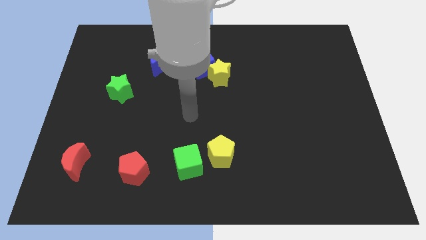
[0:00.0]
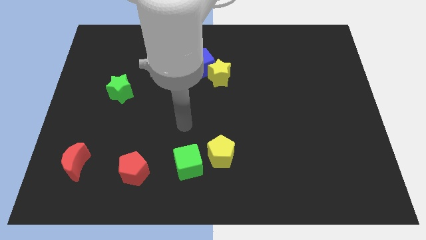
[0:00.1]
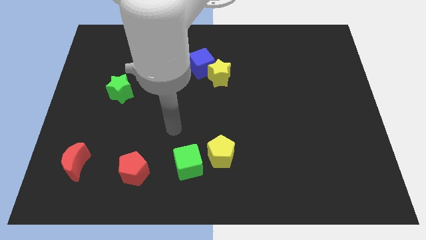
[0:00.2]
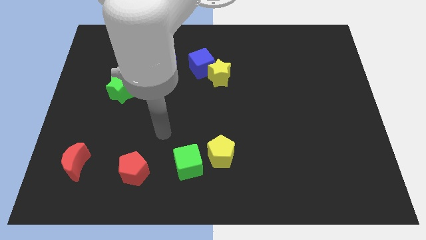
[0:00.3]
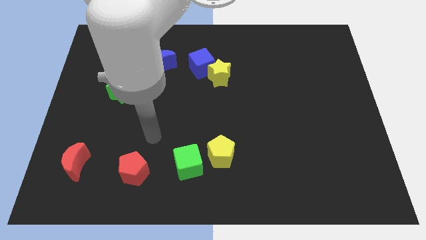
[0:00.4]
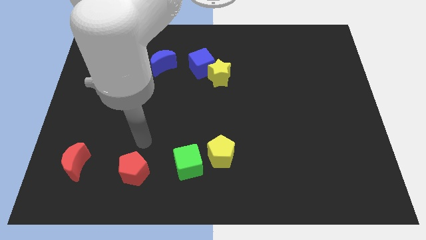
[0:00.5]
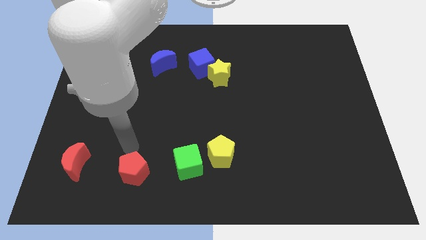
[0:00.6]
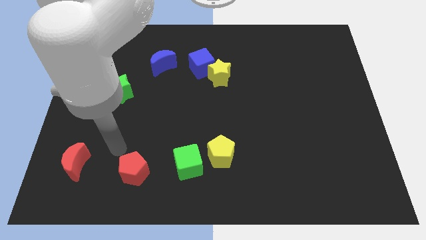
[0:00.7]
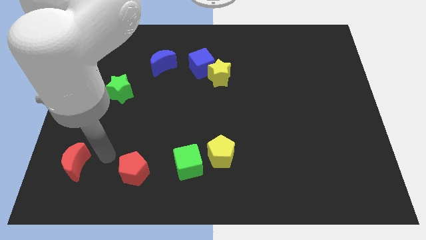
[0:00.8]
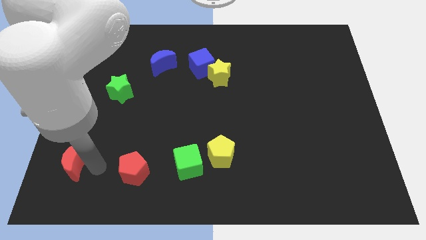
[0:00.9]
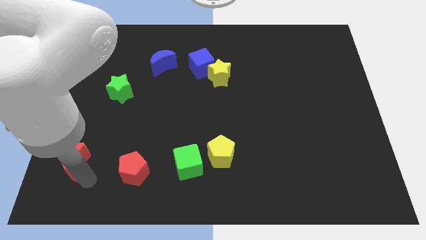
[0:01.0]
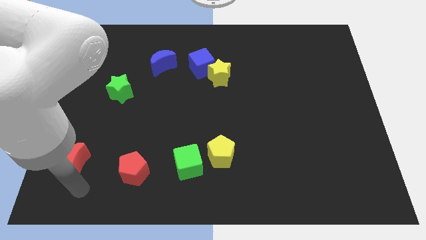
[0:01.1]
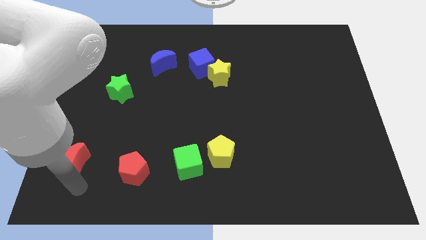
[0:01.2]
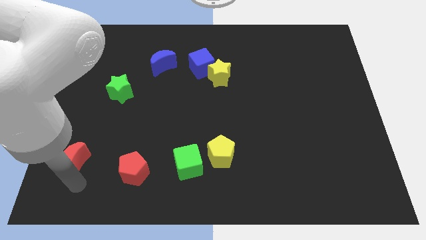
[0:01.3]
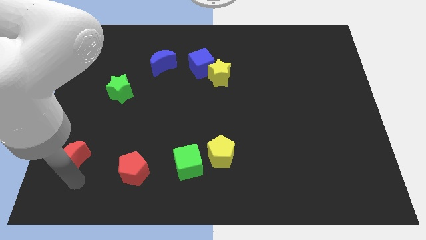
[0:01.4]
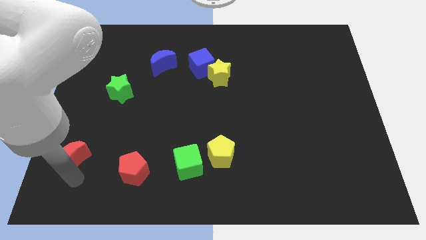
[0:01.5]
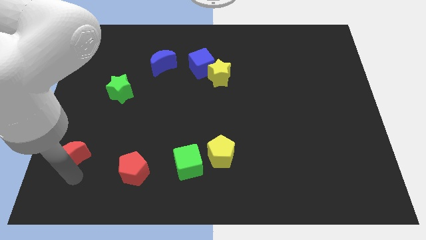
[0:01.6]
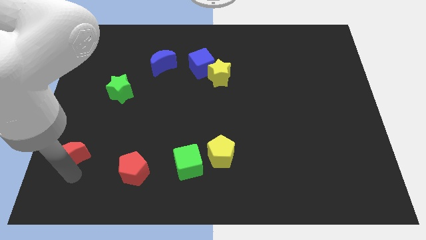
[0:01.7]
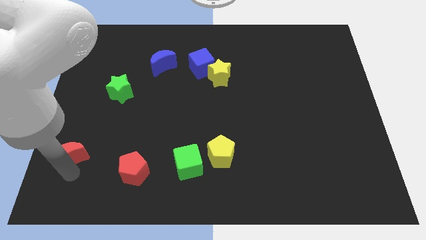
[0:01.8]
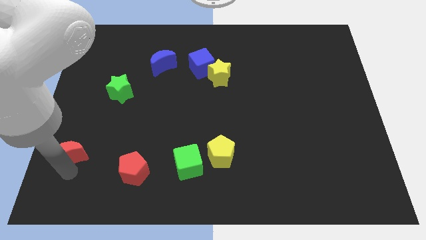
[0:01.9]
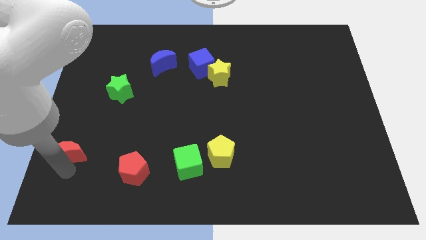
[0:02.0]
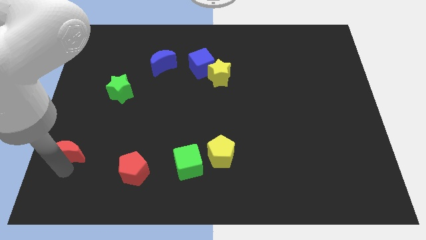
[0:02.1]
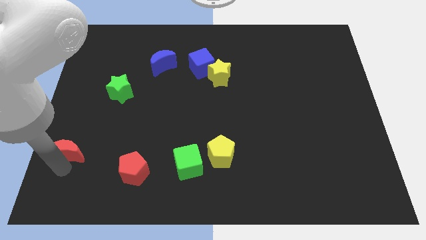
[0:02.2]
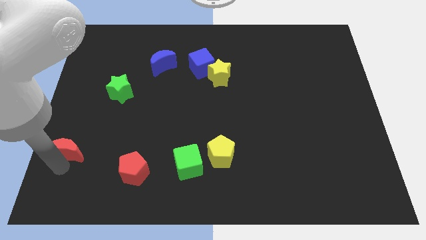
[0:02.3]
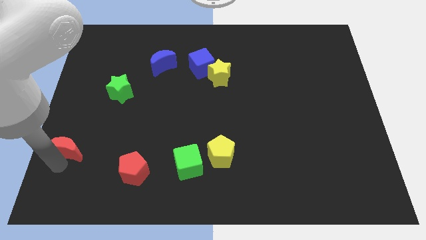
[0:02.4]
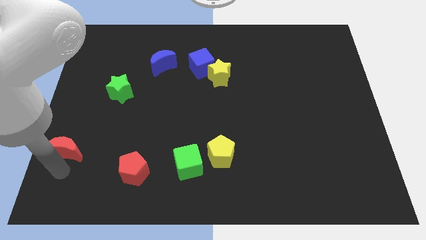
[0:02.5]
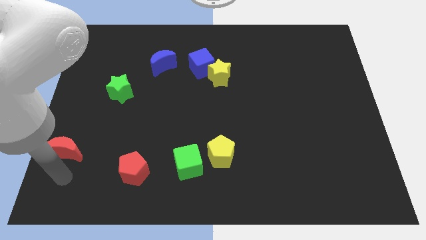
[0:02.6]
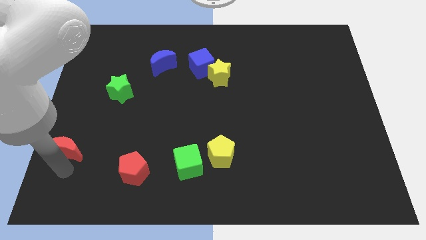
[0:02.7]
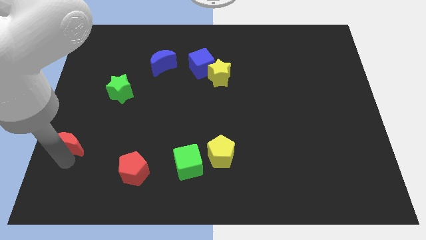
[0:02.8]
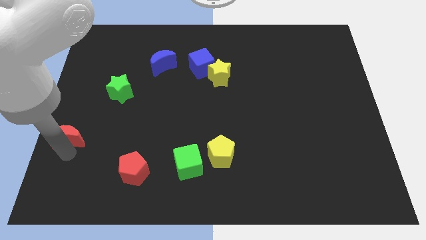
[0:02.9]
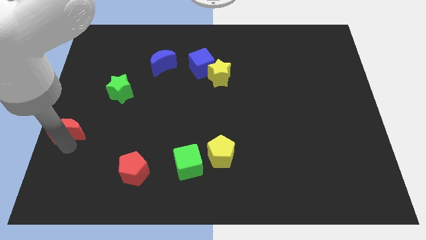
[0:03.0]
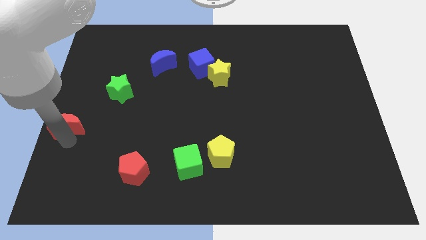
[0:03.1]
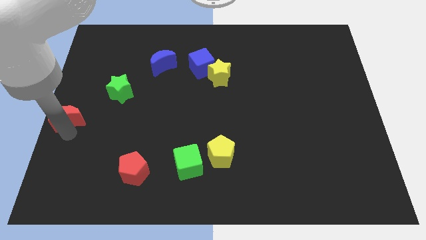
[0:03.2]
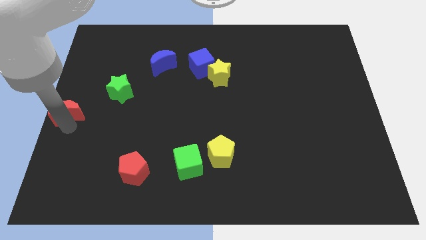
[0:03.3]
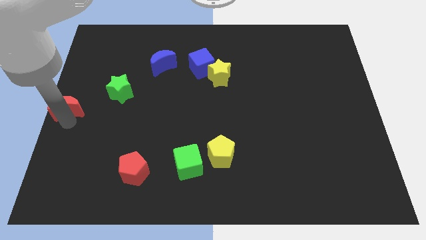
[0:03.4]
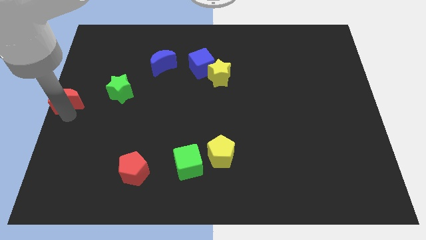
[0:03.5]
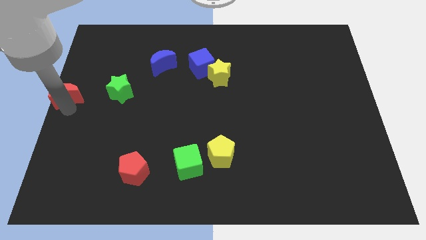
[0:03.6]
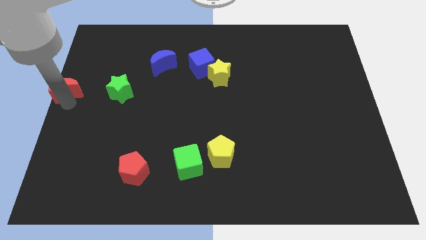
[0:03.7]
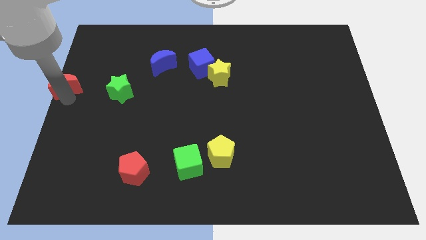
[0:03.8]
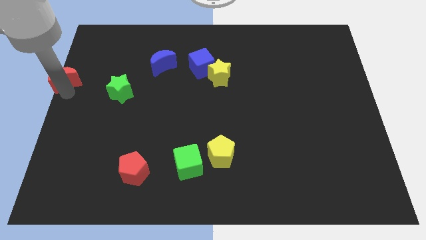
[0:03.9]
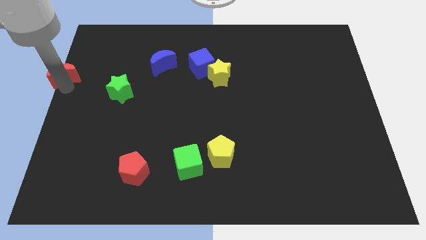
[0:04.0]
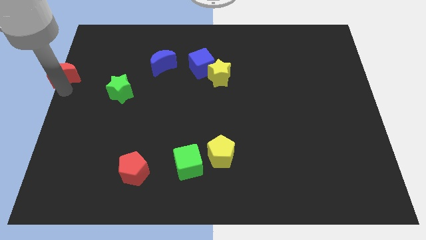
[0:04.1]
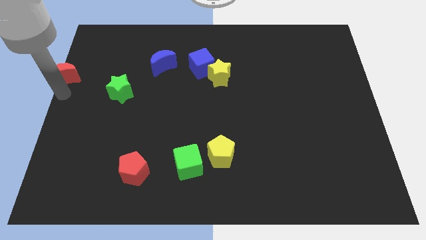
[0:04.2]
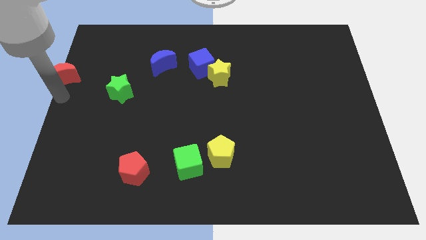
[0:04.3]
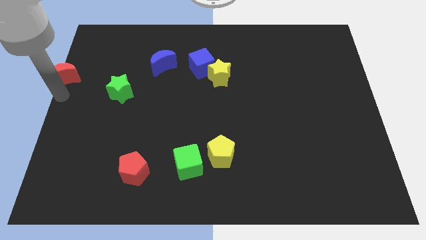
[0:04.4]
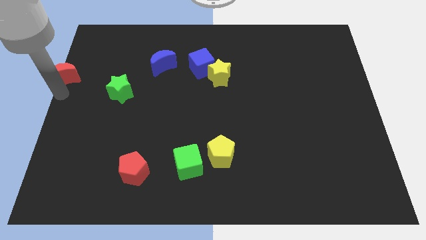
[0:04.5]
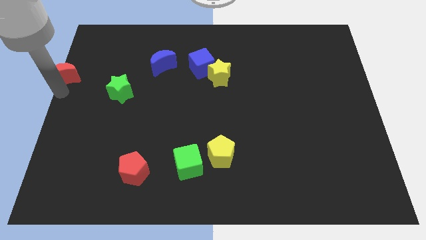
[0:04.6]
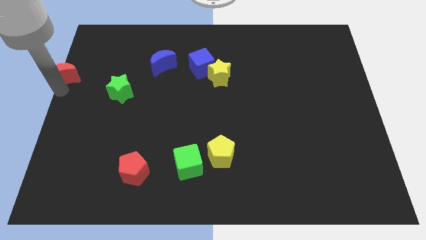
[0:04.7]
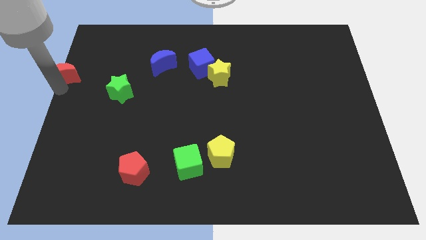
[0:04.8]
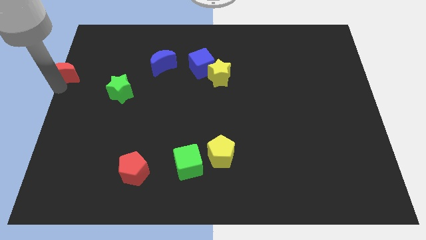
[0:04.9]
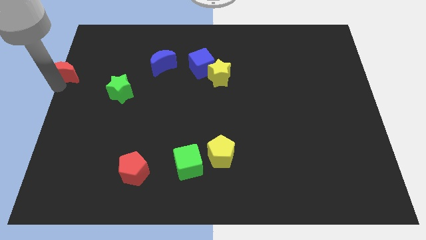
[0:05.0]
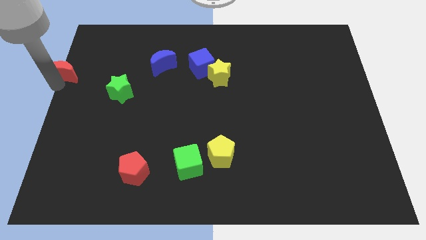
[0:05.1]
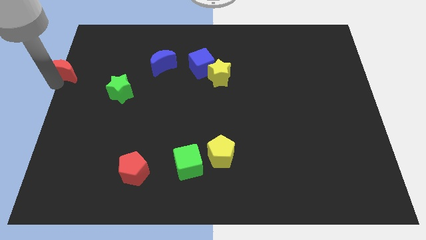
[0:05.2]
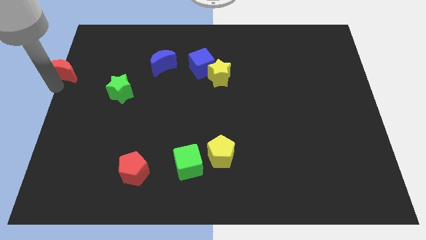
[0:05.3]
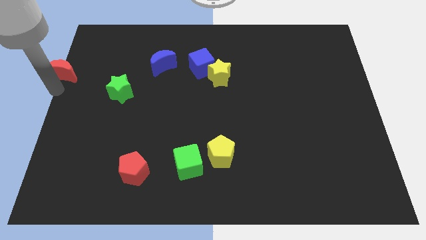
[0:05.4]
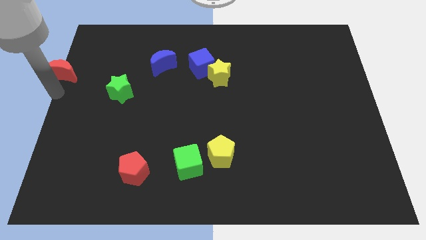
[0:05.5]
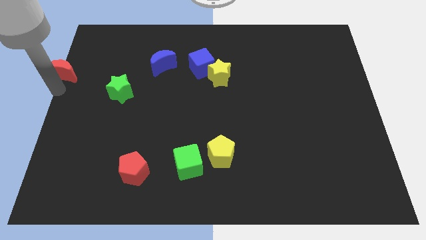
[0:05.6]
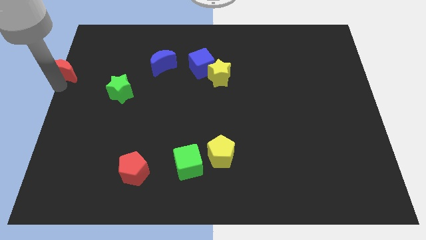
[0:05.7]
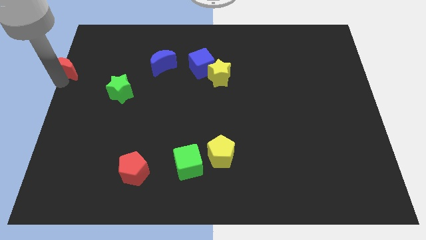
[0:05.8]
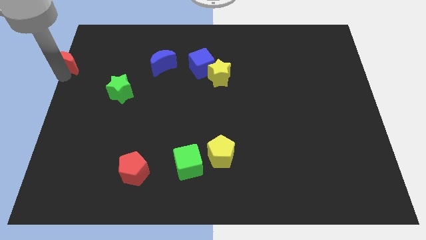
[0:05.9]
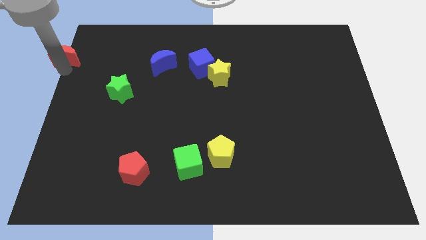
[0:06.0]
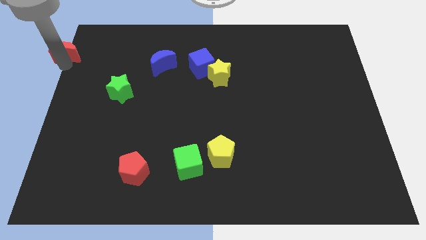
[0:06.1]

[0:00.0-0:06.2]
move the red moon to the top left corner

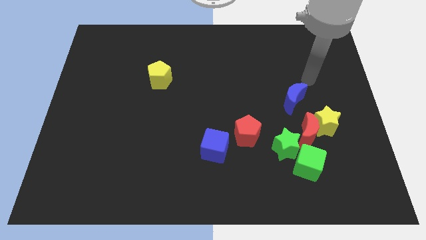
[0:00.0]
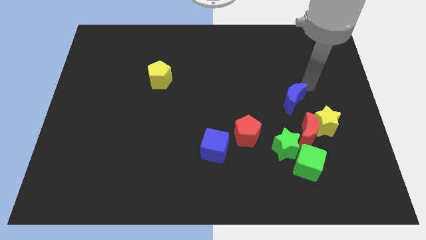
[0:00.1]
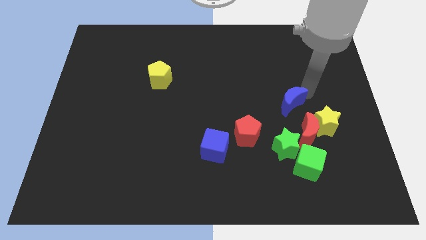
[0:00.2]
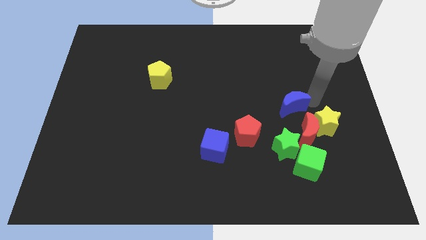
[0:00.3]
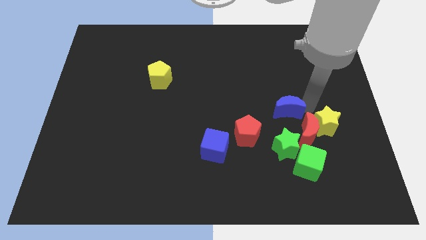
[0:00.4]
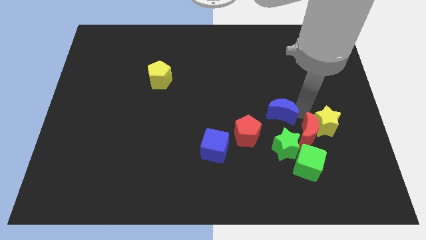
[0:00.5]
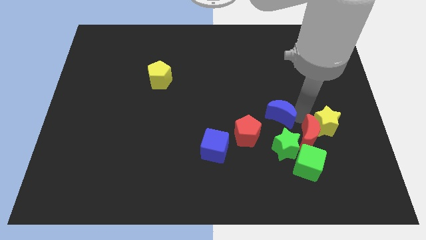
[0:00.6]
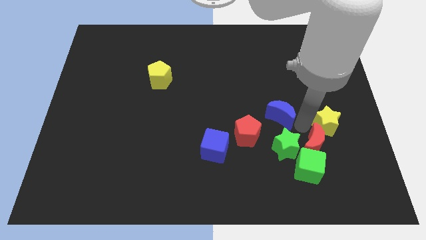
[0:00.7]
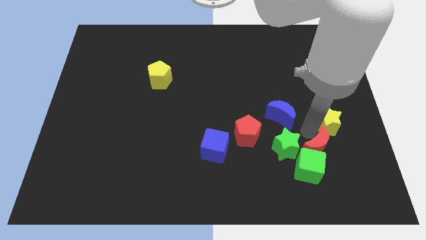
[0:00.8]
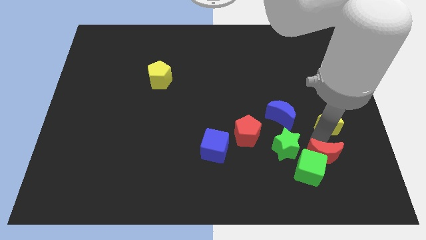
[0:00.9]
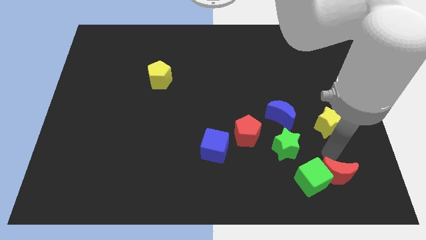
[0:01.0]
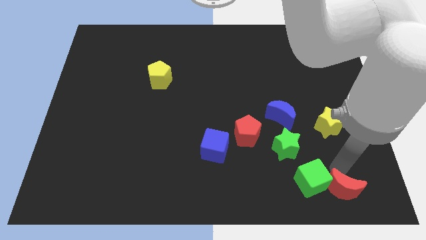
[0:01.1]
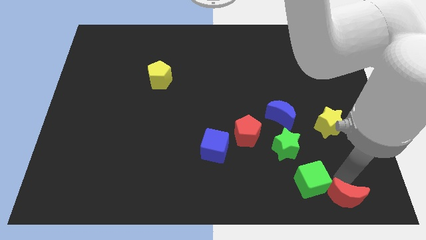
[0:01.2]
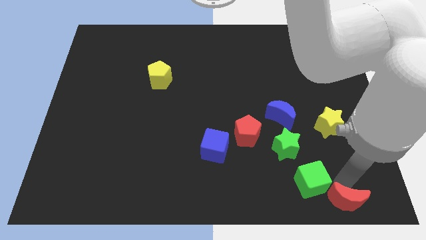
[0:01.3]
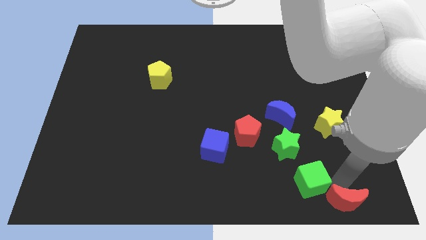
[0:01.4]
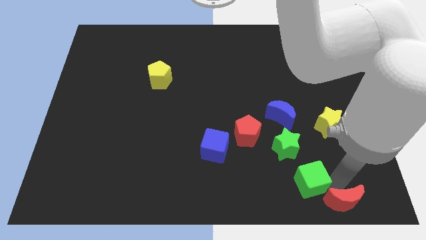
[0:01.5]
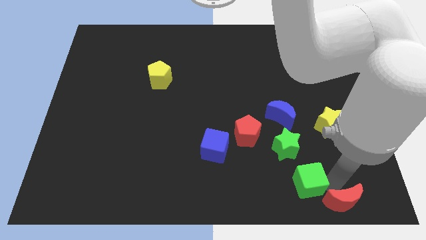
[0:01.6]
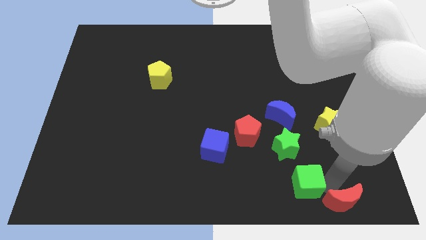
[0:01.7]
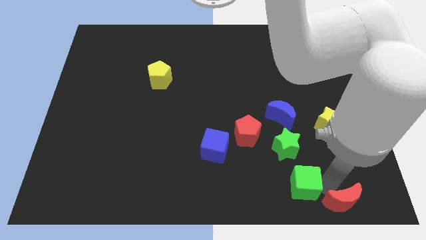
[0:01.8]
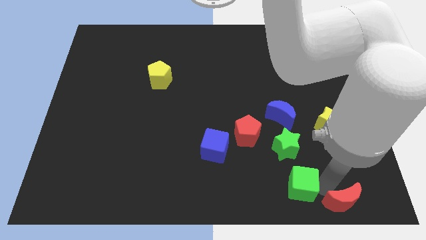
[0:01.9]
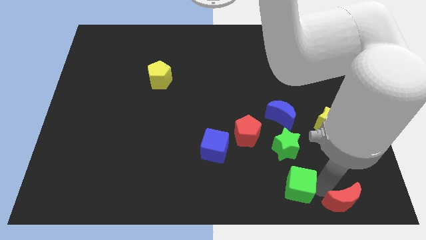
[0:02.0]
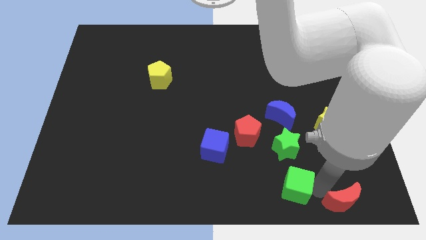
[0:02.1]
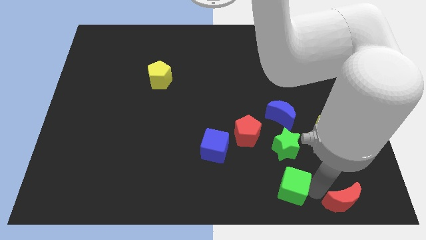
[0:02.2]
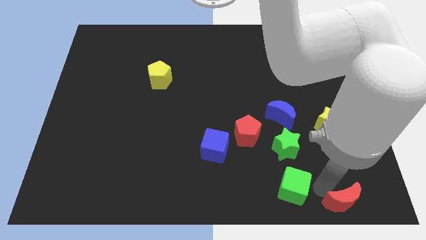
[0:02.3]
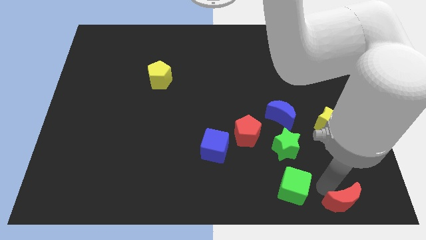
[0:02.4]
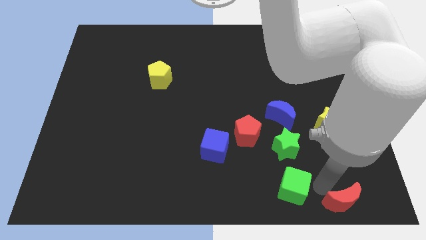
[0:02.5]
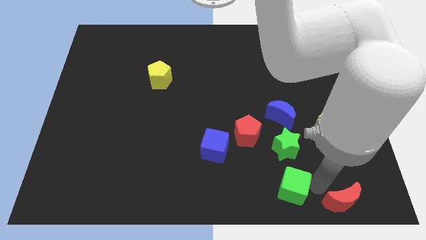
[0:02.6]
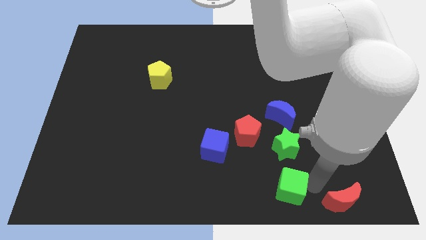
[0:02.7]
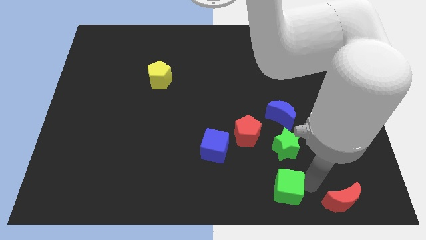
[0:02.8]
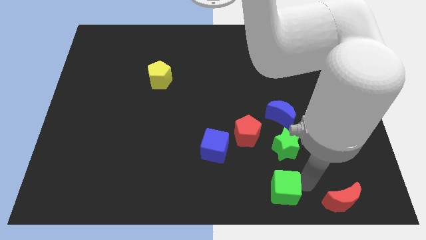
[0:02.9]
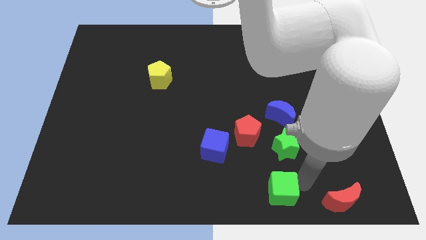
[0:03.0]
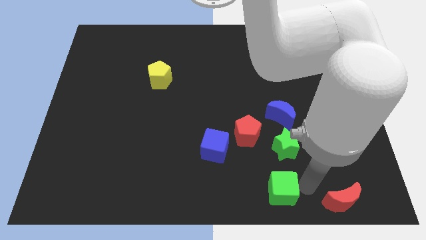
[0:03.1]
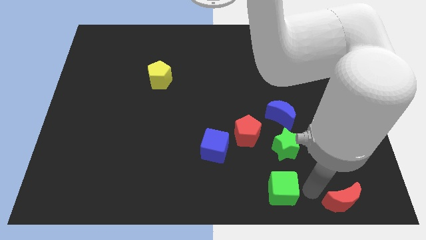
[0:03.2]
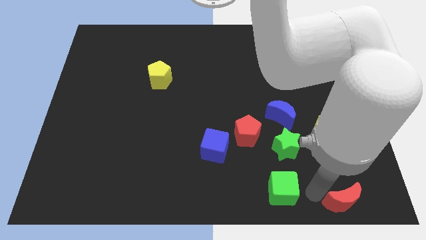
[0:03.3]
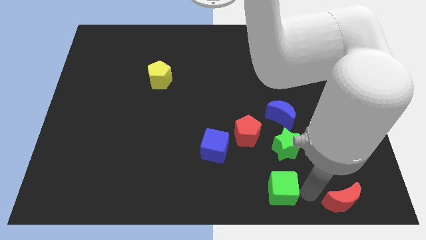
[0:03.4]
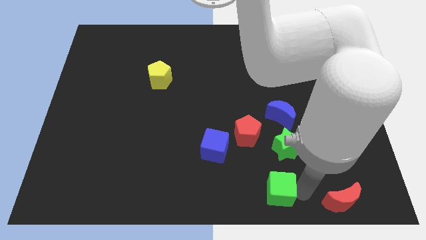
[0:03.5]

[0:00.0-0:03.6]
push the green cube to the bottom side
